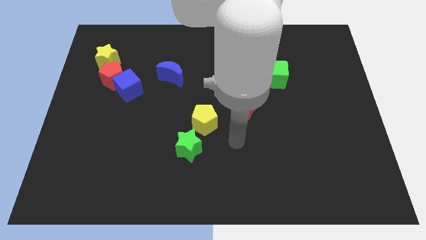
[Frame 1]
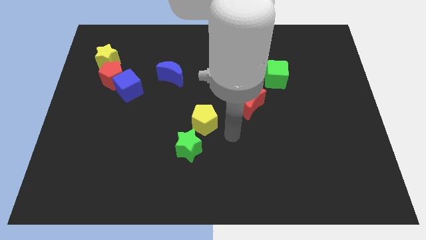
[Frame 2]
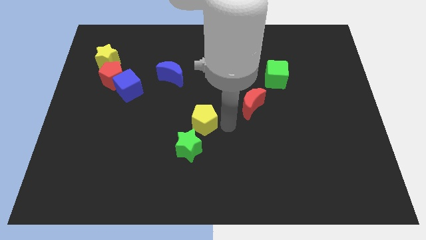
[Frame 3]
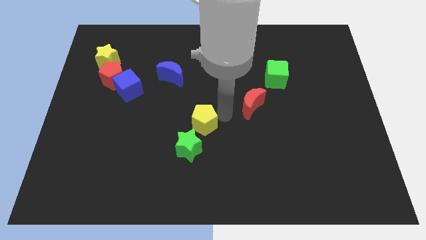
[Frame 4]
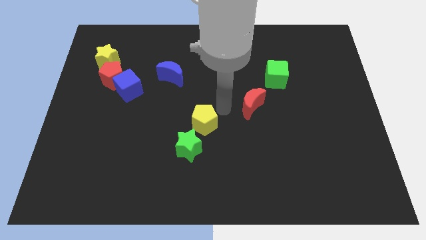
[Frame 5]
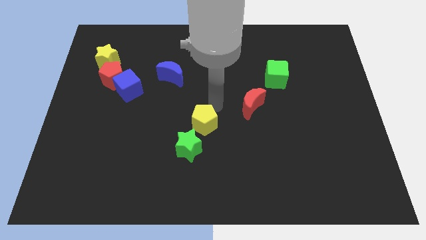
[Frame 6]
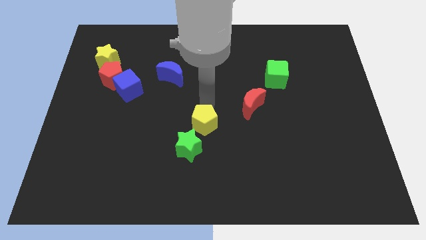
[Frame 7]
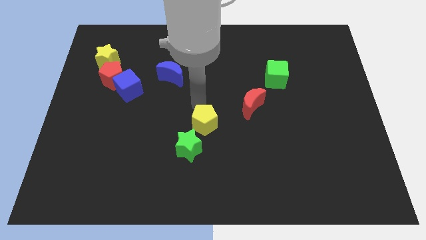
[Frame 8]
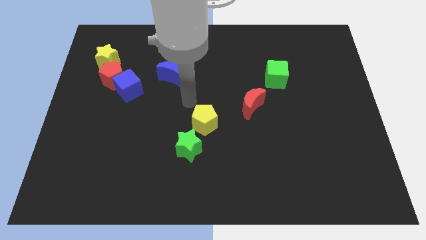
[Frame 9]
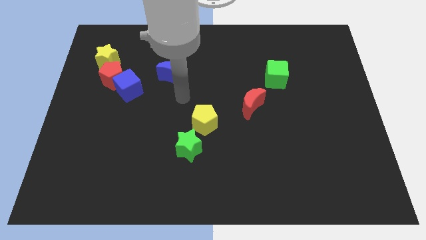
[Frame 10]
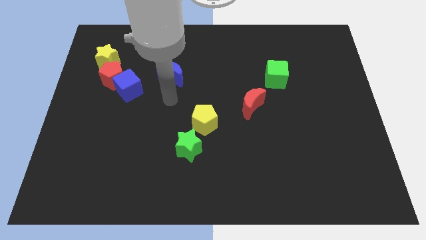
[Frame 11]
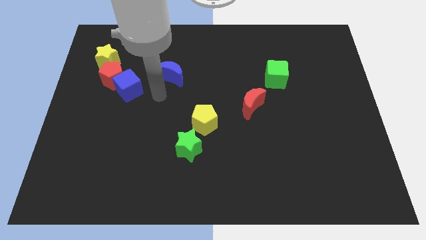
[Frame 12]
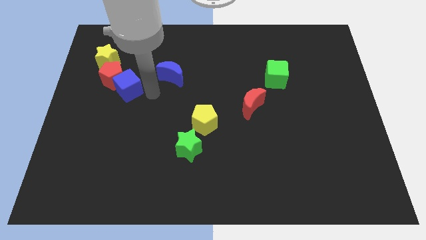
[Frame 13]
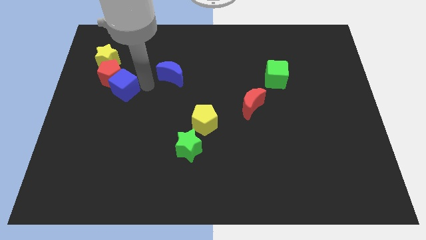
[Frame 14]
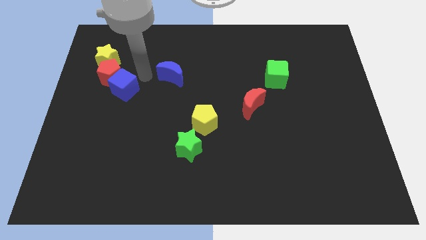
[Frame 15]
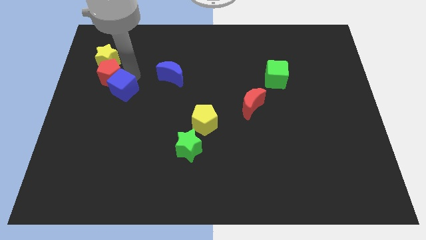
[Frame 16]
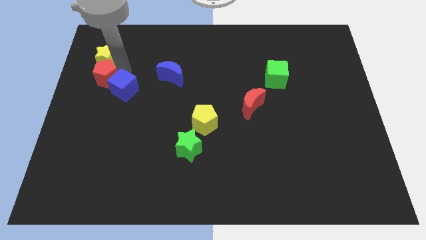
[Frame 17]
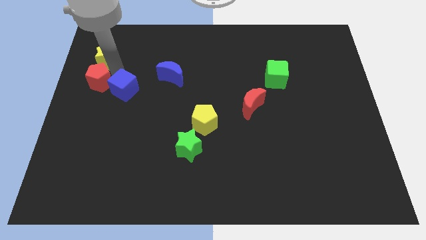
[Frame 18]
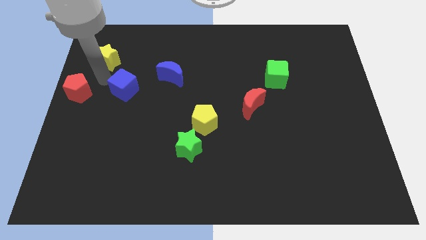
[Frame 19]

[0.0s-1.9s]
pull the blue cube apart from the red pentagon

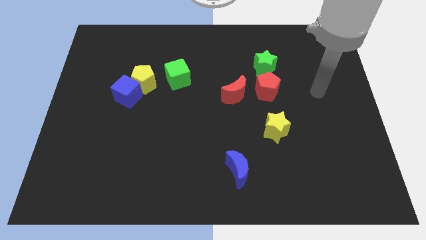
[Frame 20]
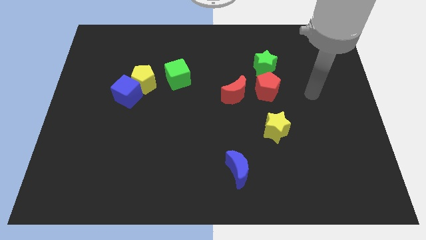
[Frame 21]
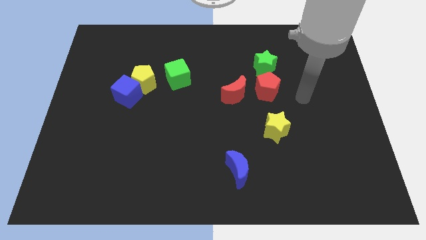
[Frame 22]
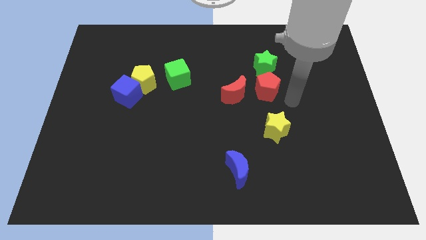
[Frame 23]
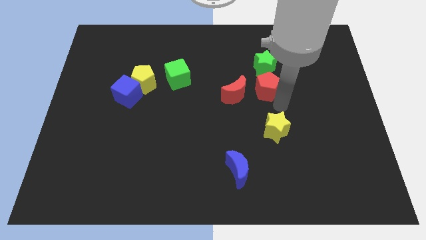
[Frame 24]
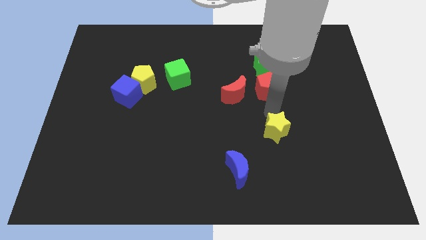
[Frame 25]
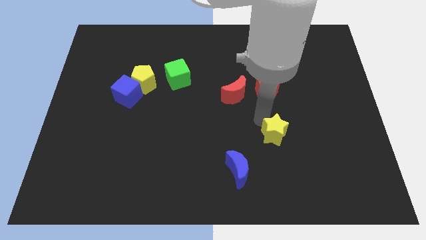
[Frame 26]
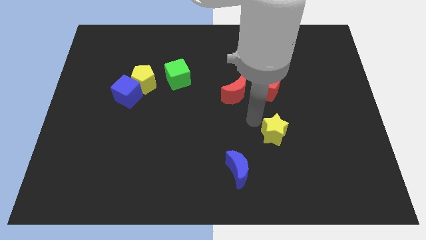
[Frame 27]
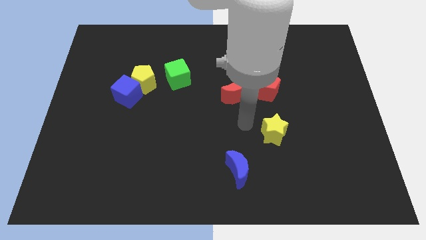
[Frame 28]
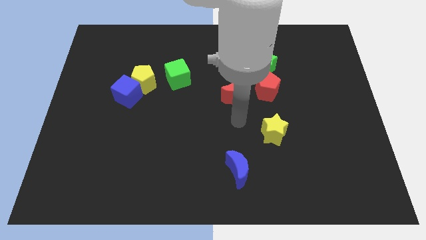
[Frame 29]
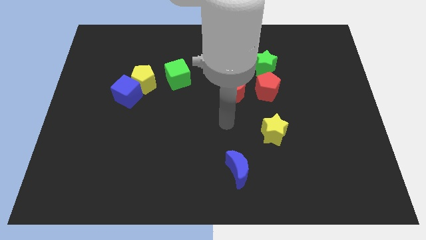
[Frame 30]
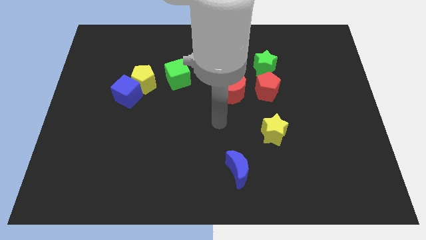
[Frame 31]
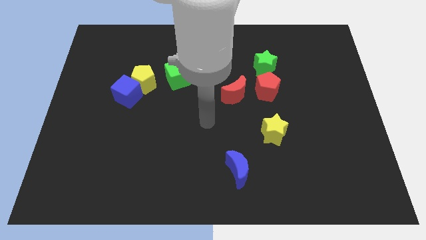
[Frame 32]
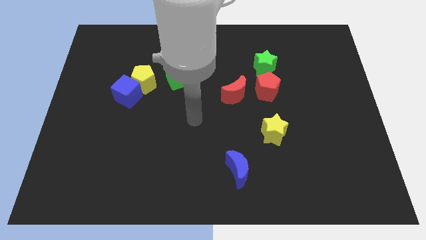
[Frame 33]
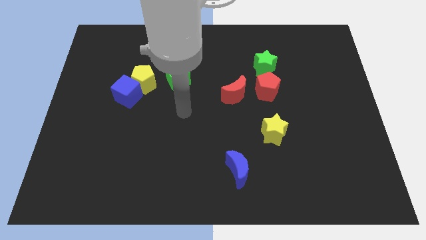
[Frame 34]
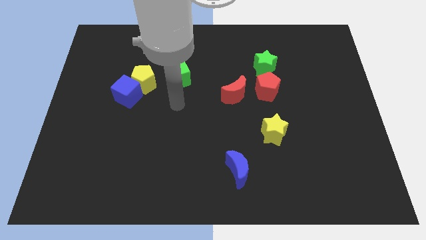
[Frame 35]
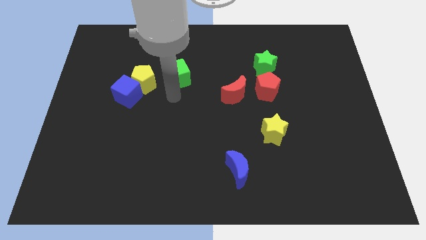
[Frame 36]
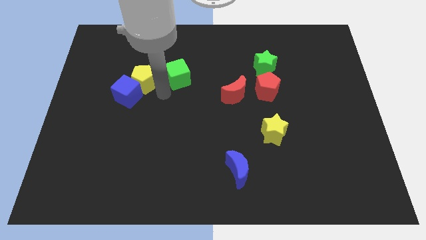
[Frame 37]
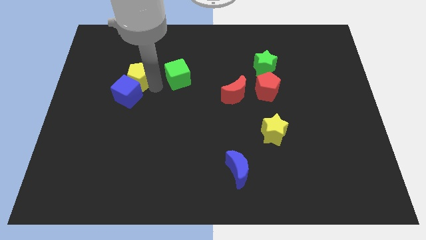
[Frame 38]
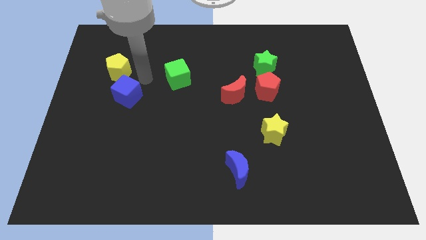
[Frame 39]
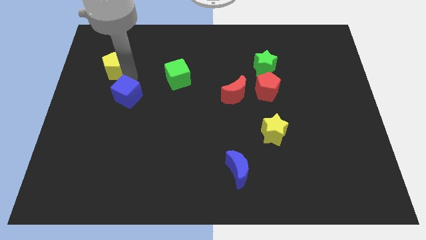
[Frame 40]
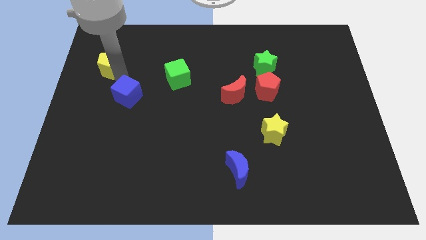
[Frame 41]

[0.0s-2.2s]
move the blue cube away from the yellow pentagon

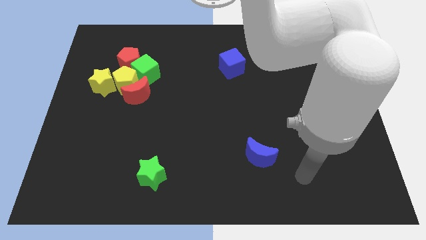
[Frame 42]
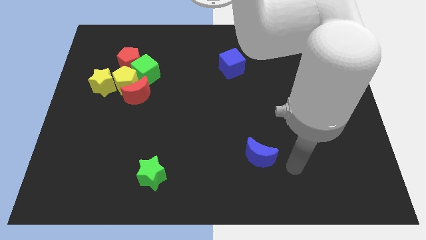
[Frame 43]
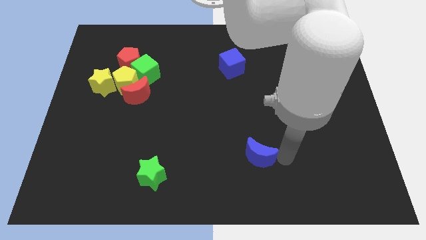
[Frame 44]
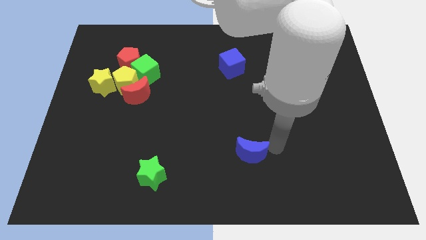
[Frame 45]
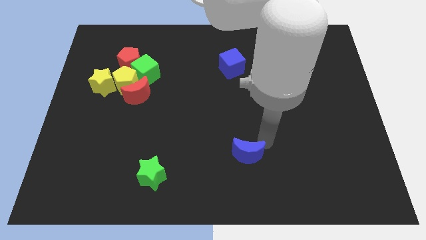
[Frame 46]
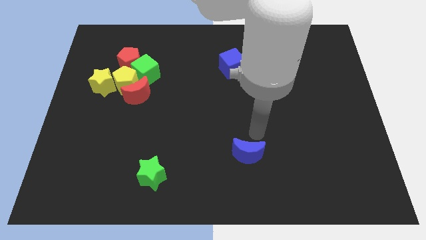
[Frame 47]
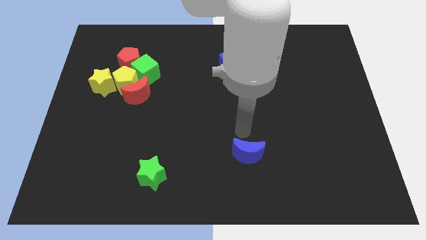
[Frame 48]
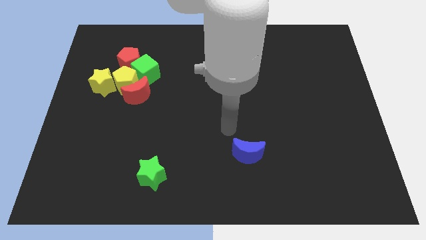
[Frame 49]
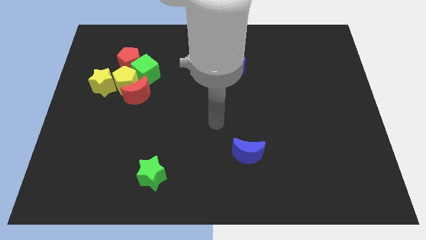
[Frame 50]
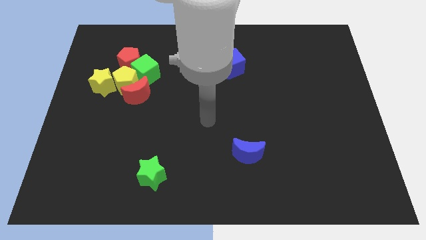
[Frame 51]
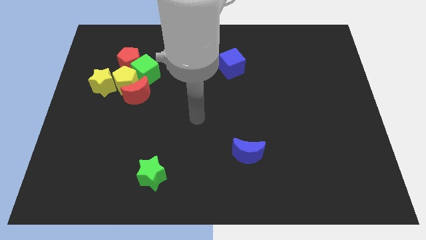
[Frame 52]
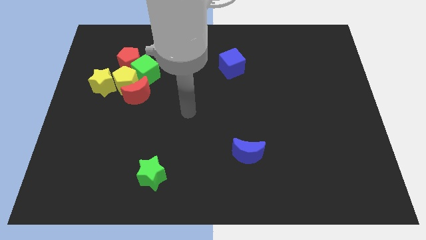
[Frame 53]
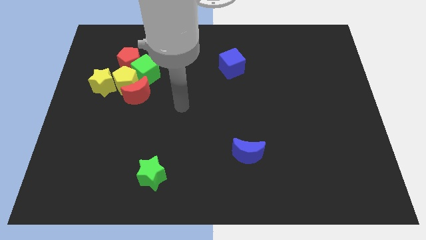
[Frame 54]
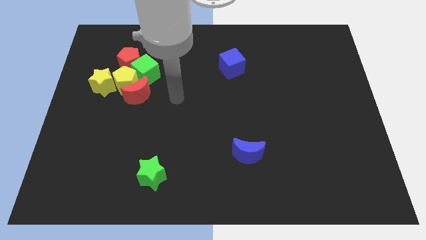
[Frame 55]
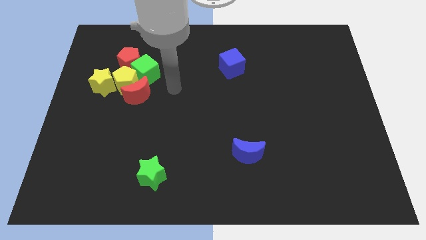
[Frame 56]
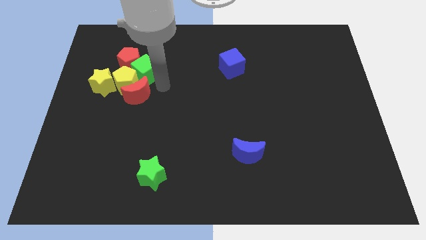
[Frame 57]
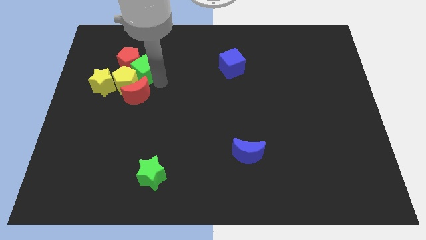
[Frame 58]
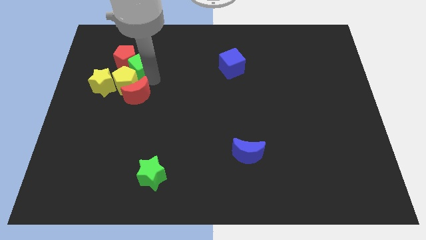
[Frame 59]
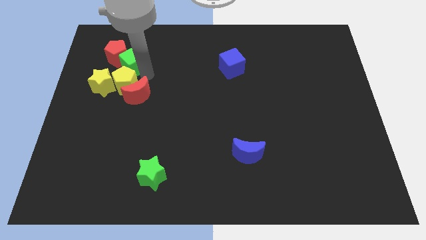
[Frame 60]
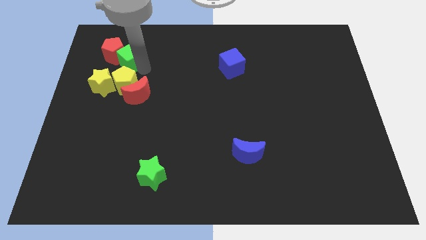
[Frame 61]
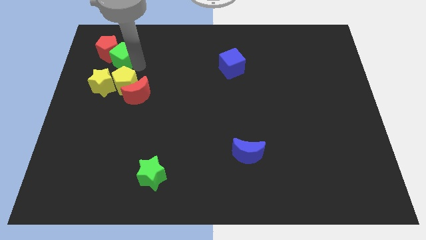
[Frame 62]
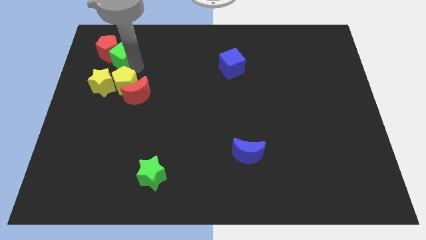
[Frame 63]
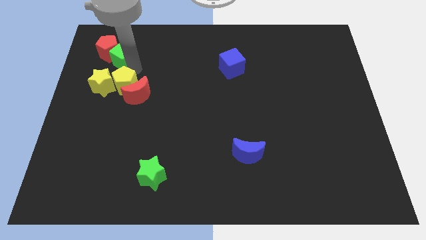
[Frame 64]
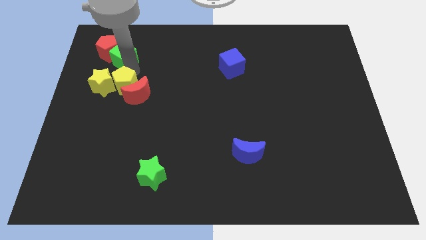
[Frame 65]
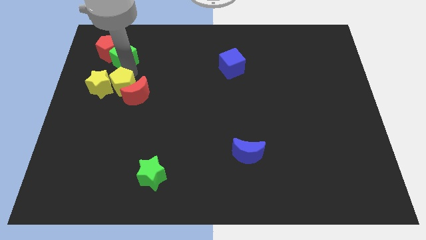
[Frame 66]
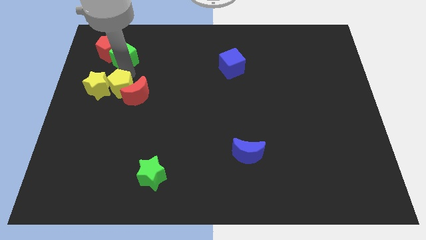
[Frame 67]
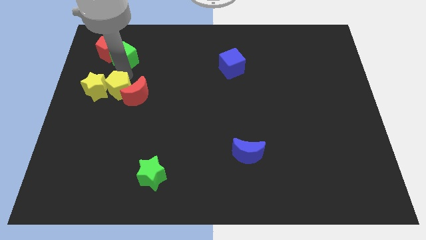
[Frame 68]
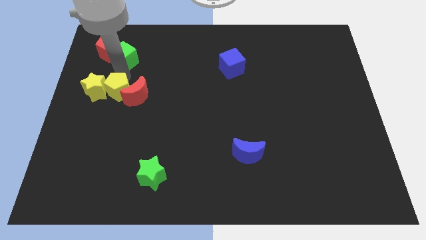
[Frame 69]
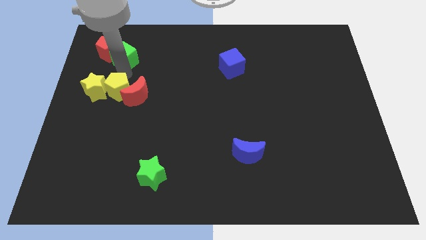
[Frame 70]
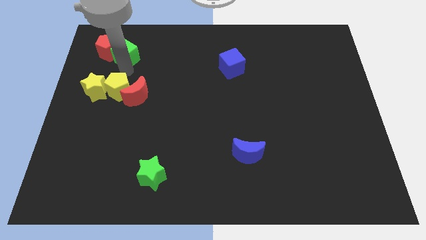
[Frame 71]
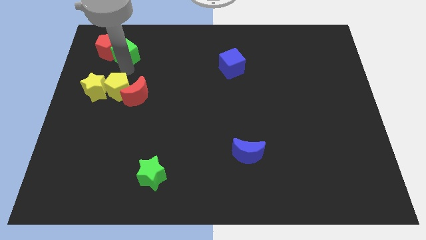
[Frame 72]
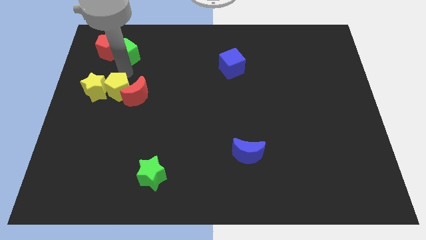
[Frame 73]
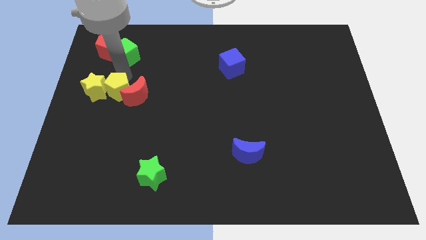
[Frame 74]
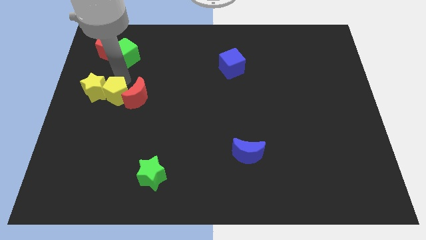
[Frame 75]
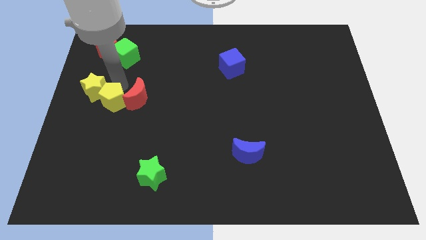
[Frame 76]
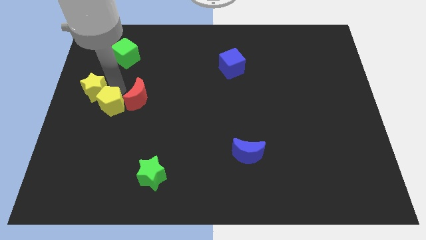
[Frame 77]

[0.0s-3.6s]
move the yellow pentagon away from the clump

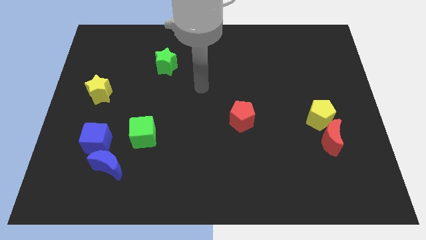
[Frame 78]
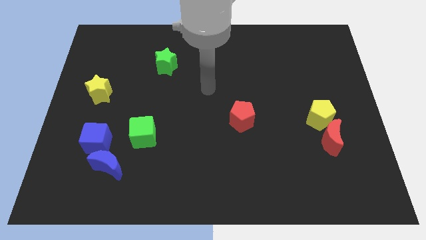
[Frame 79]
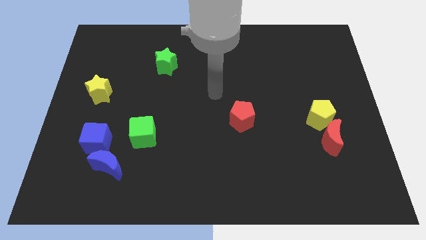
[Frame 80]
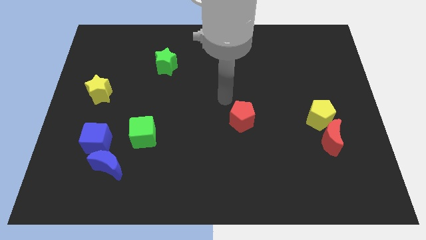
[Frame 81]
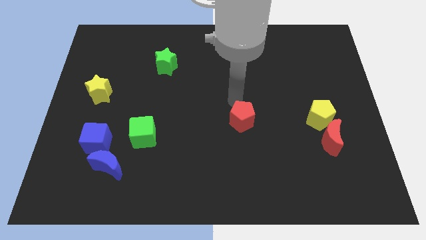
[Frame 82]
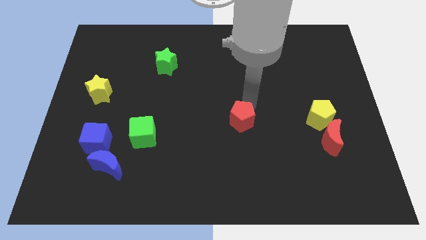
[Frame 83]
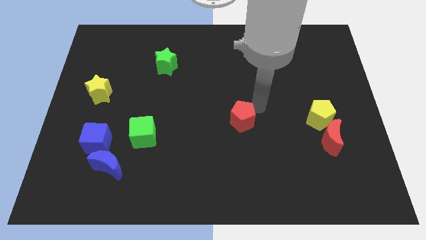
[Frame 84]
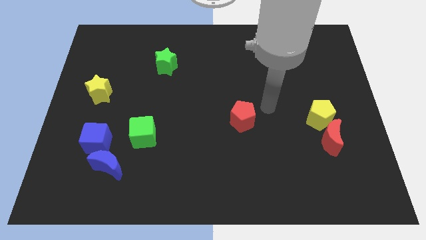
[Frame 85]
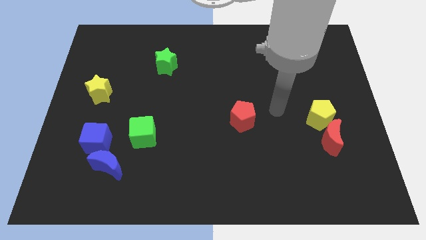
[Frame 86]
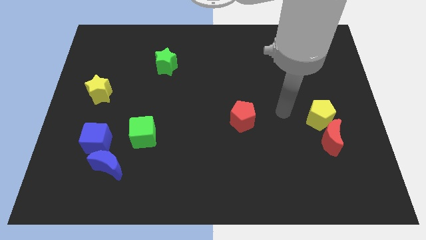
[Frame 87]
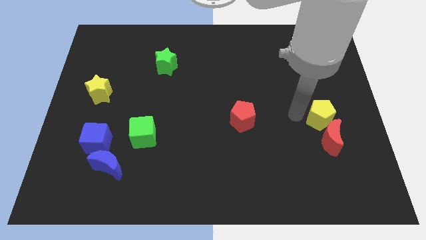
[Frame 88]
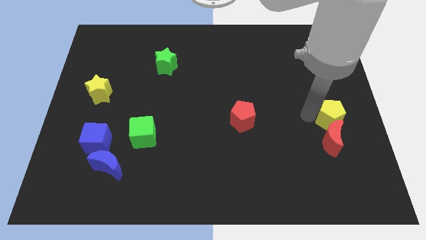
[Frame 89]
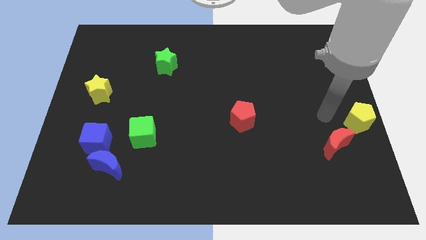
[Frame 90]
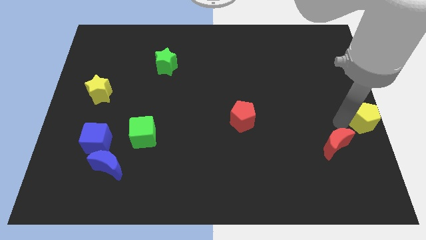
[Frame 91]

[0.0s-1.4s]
separate the red moon from the yellow pentagon

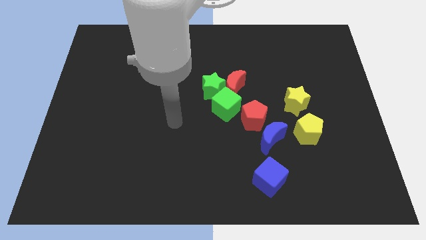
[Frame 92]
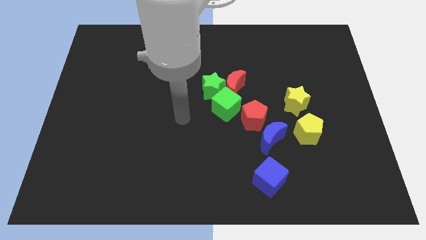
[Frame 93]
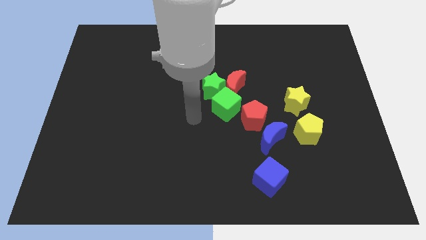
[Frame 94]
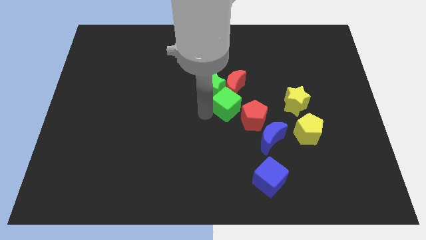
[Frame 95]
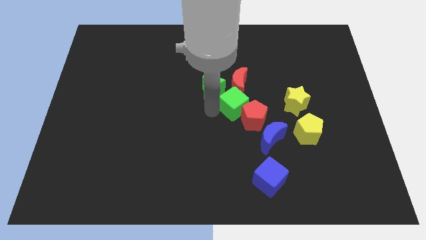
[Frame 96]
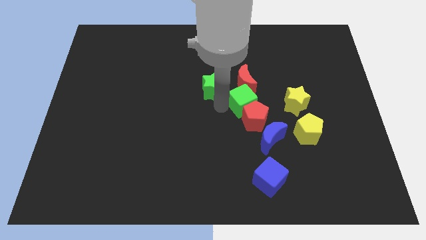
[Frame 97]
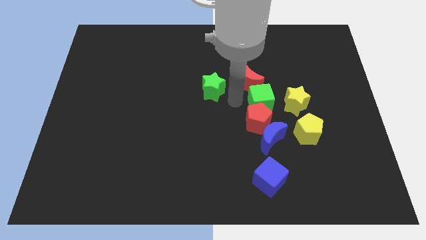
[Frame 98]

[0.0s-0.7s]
separate the green star from the red moon and green cube
